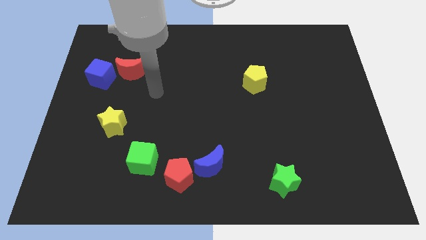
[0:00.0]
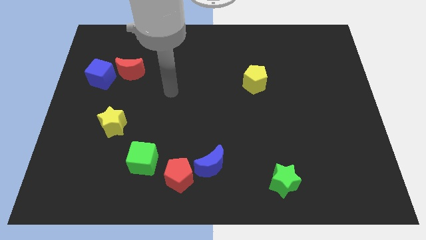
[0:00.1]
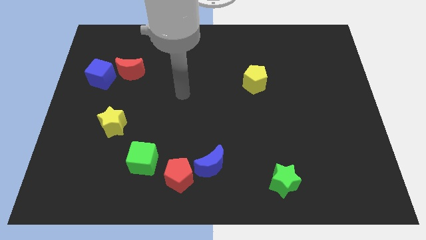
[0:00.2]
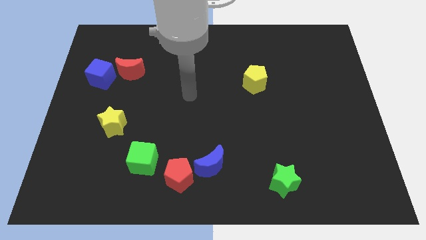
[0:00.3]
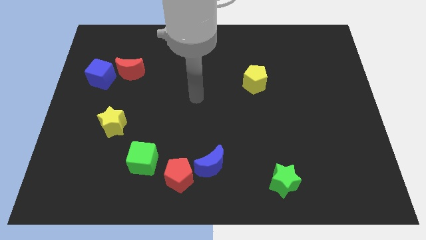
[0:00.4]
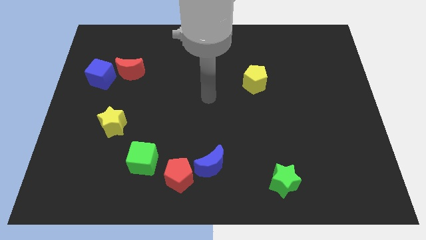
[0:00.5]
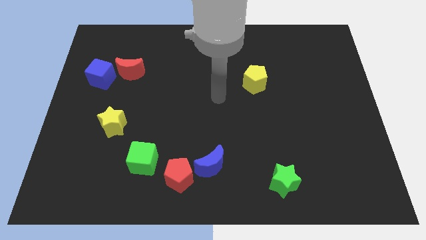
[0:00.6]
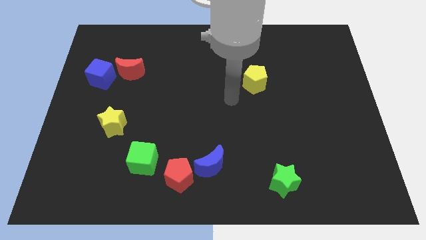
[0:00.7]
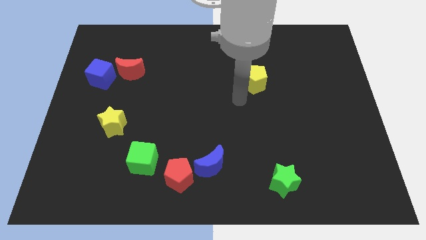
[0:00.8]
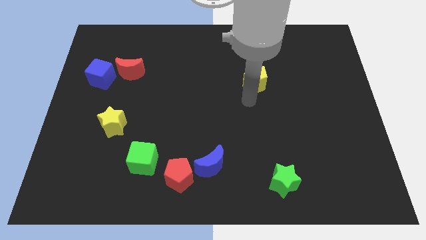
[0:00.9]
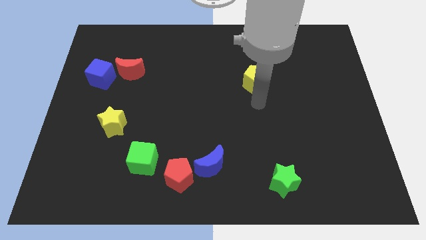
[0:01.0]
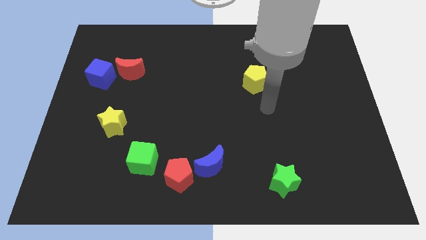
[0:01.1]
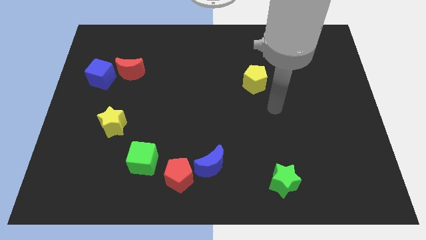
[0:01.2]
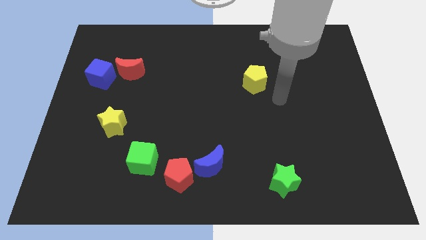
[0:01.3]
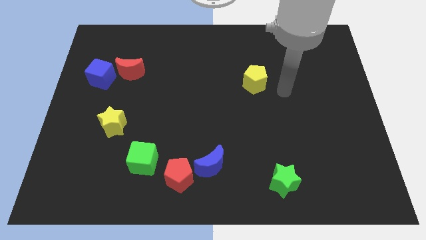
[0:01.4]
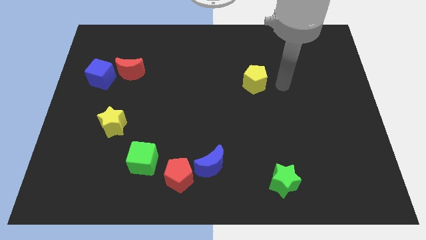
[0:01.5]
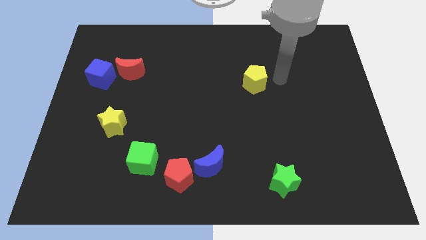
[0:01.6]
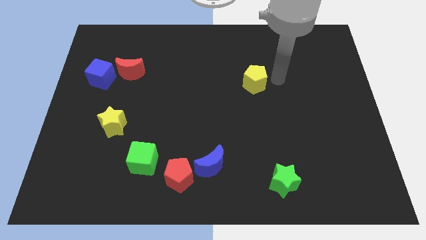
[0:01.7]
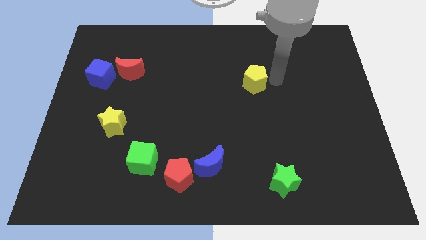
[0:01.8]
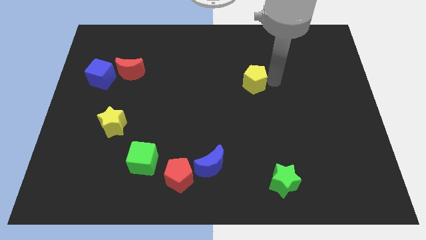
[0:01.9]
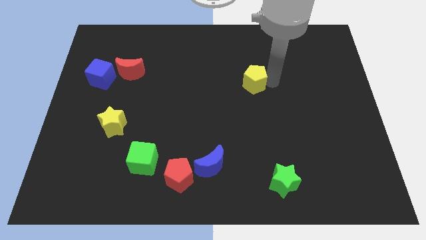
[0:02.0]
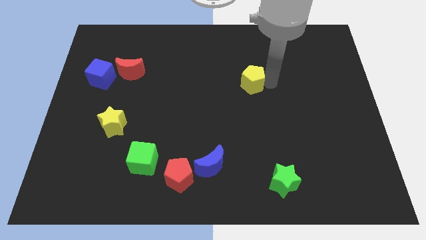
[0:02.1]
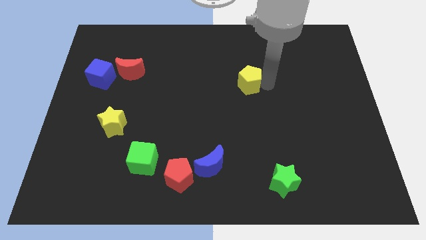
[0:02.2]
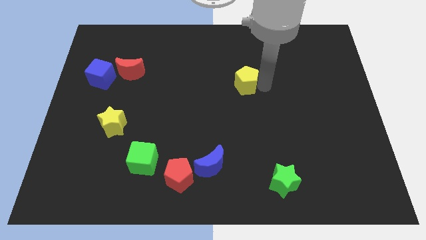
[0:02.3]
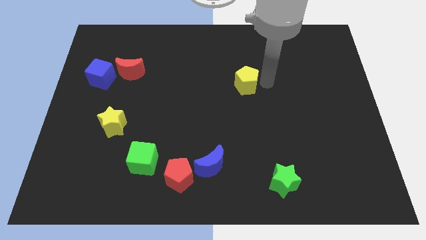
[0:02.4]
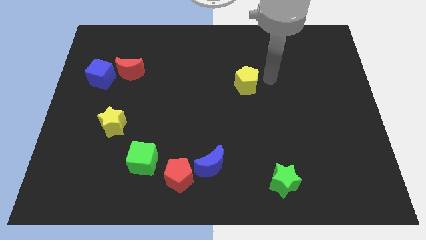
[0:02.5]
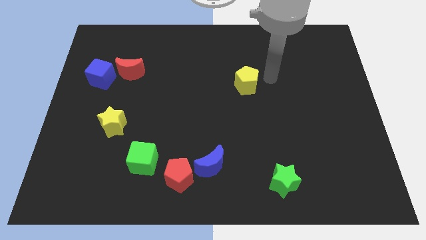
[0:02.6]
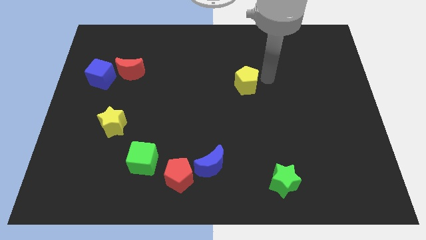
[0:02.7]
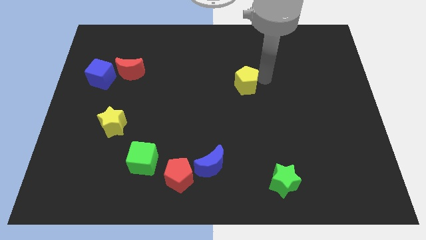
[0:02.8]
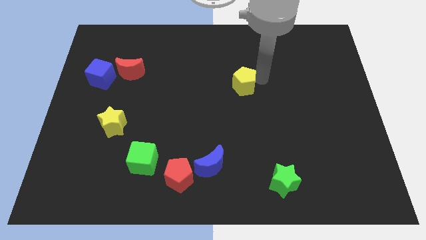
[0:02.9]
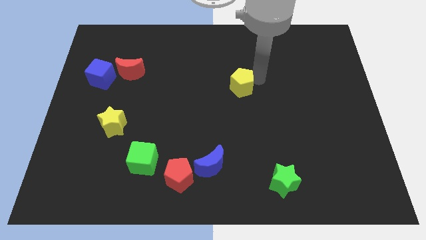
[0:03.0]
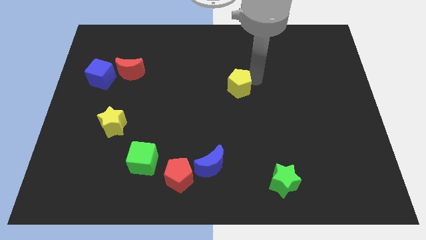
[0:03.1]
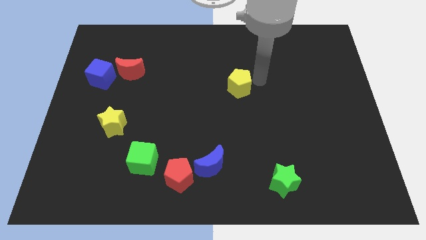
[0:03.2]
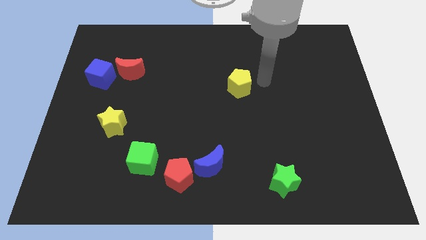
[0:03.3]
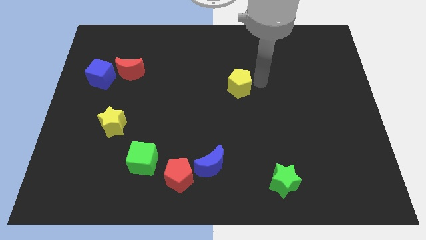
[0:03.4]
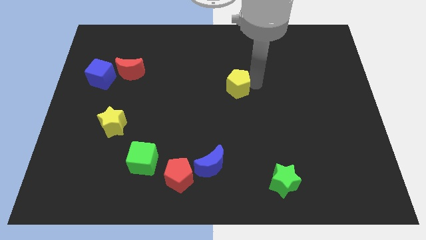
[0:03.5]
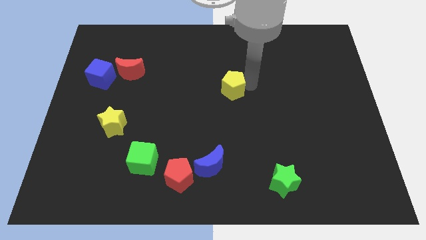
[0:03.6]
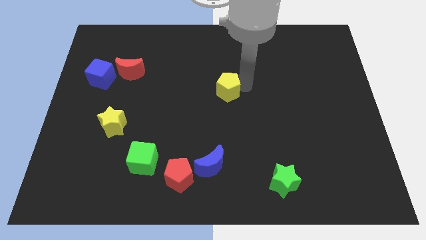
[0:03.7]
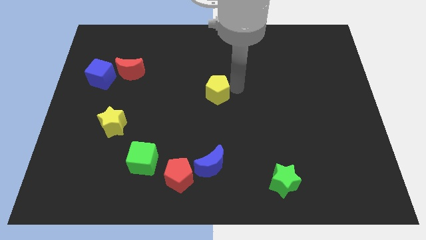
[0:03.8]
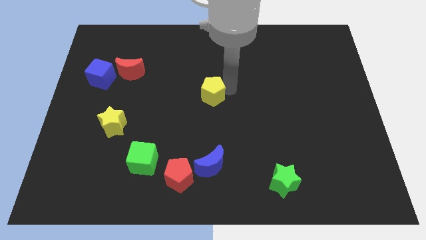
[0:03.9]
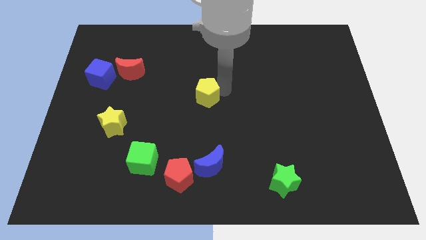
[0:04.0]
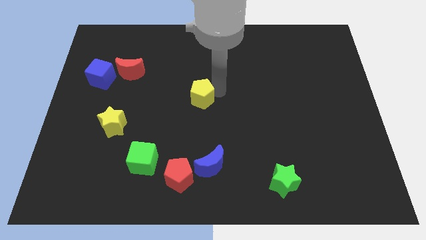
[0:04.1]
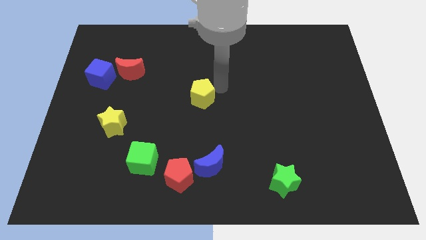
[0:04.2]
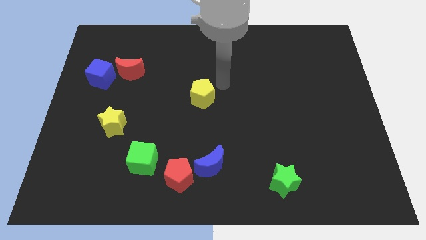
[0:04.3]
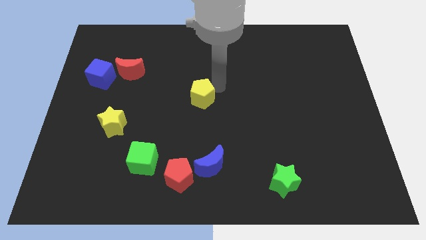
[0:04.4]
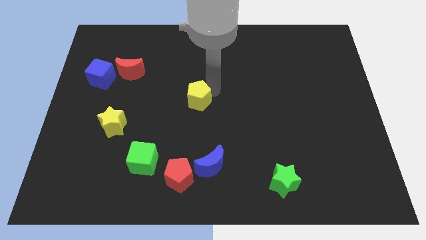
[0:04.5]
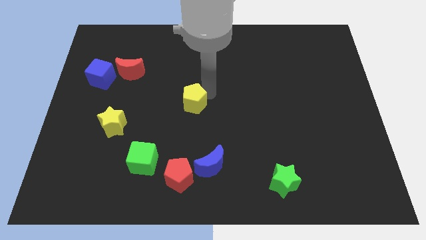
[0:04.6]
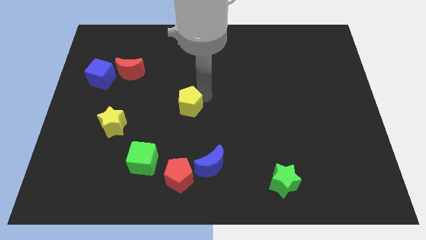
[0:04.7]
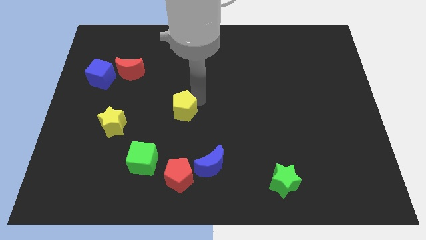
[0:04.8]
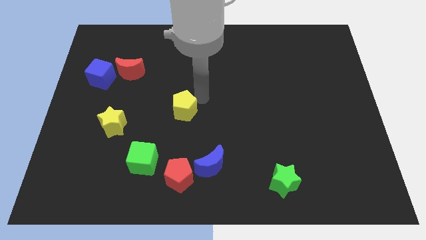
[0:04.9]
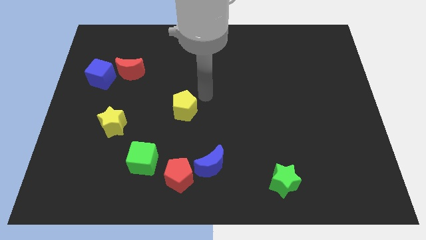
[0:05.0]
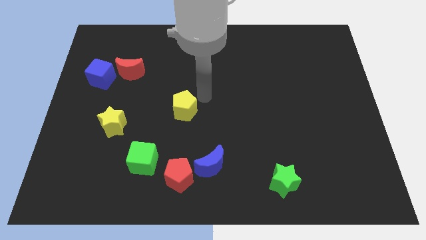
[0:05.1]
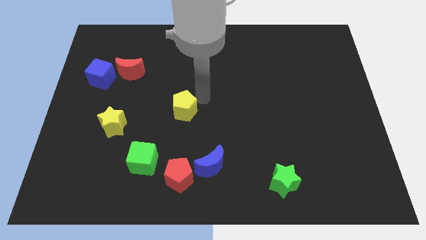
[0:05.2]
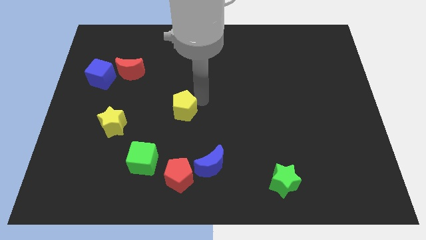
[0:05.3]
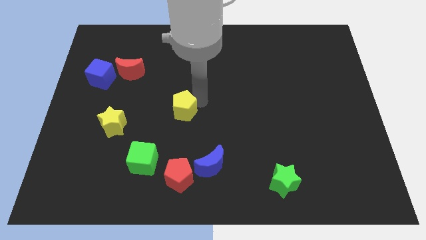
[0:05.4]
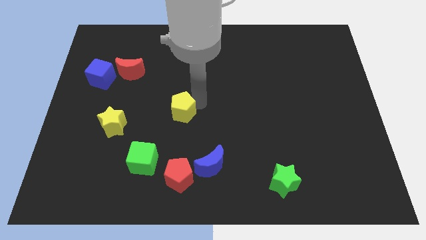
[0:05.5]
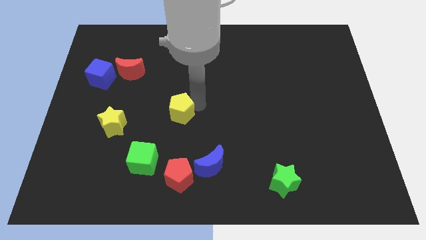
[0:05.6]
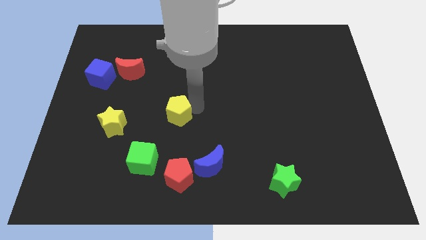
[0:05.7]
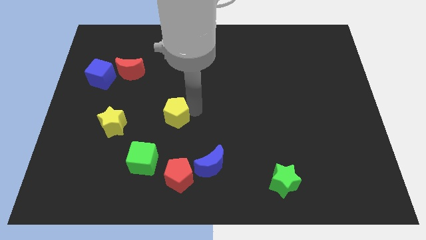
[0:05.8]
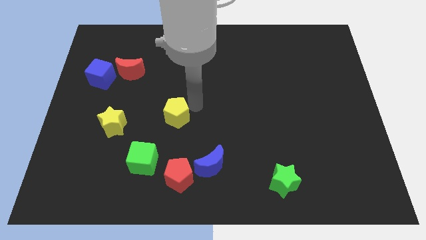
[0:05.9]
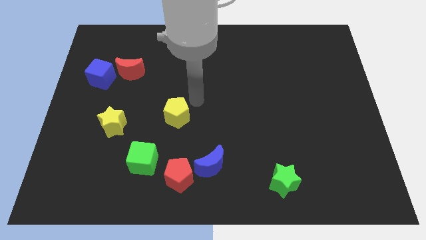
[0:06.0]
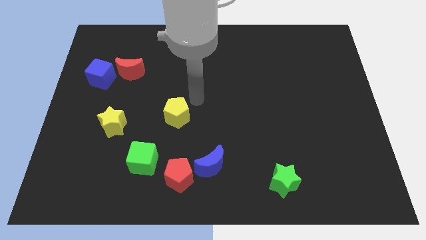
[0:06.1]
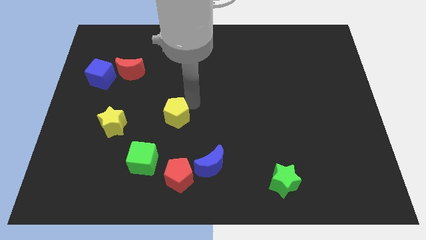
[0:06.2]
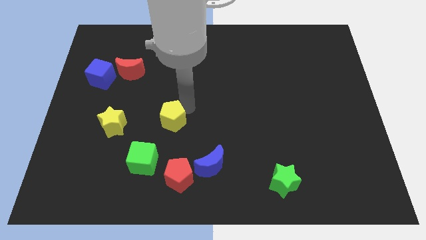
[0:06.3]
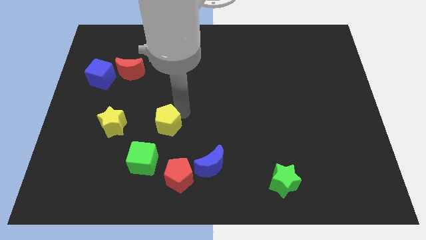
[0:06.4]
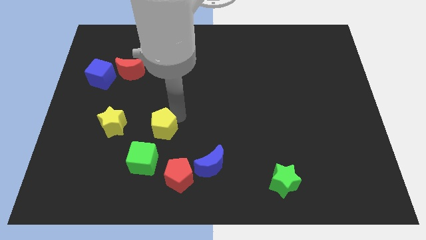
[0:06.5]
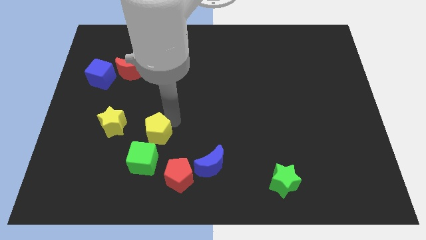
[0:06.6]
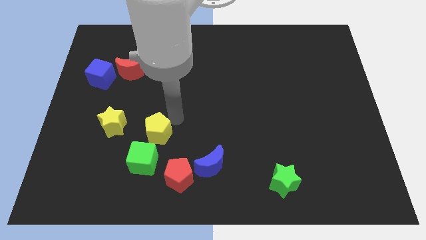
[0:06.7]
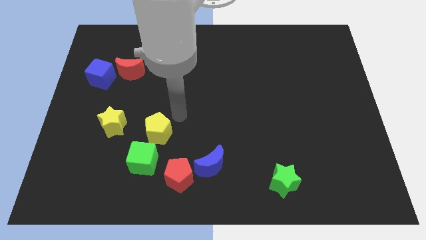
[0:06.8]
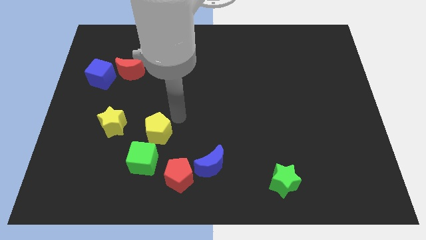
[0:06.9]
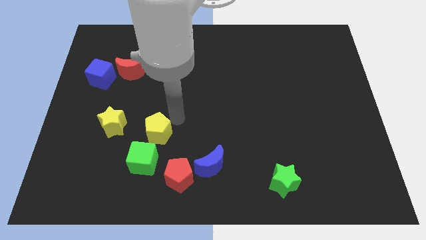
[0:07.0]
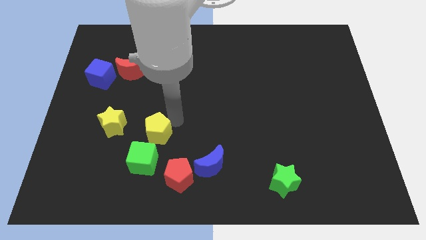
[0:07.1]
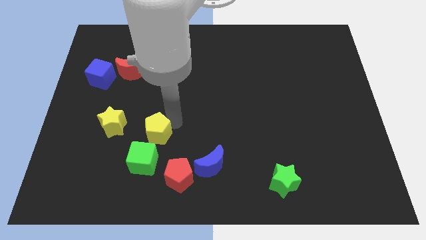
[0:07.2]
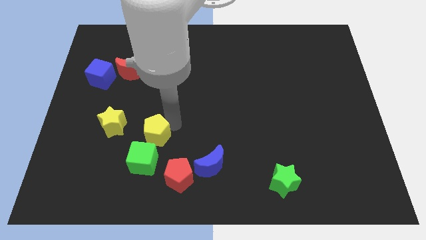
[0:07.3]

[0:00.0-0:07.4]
push the yellow pentagon to the top left of the red pentagon
